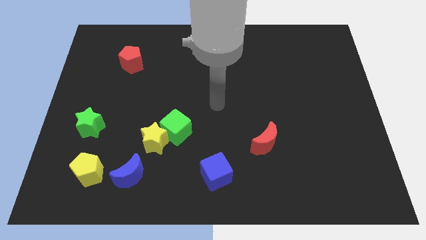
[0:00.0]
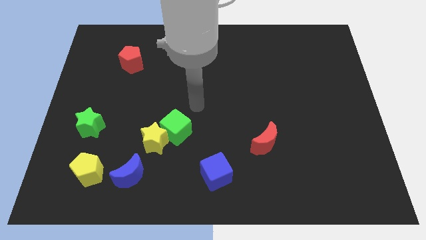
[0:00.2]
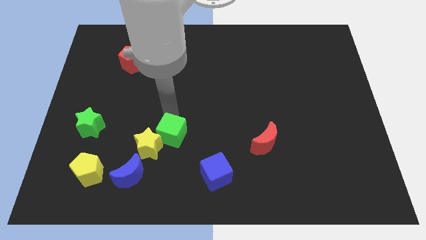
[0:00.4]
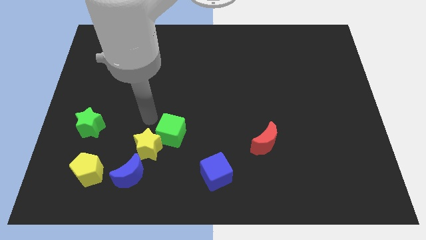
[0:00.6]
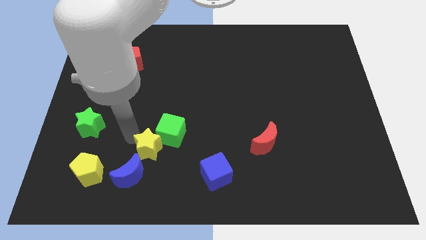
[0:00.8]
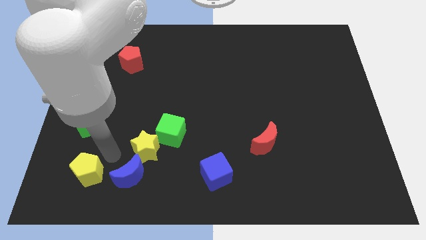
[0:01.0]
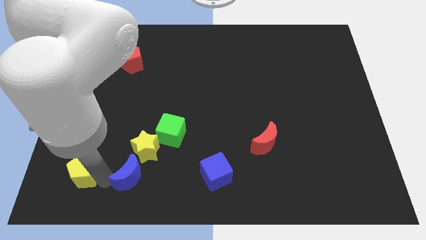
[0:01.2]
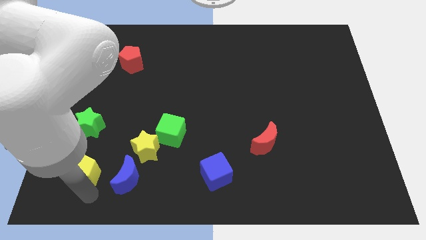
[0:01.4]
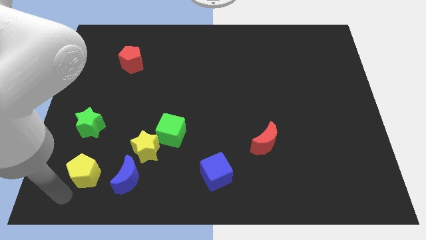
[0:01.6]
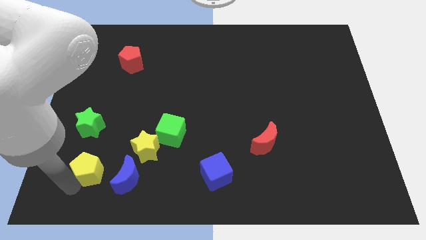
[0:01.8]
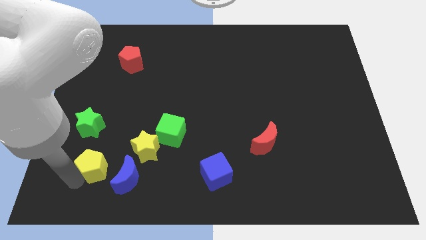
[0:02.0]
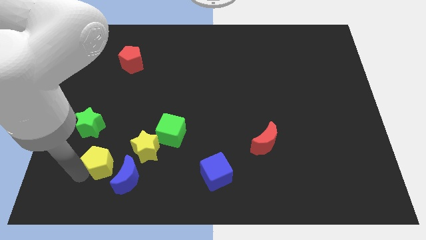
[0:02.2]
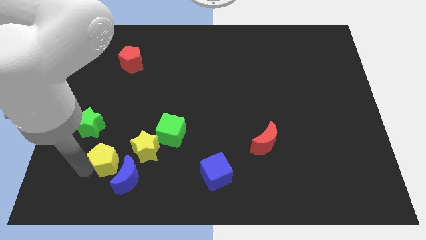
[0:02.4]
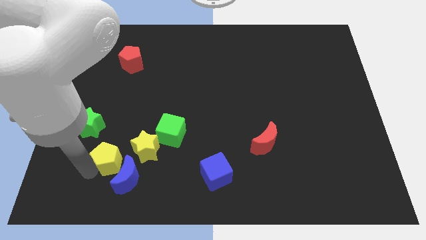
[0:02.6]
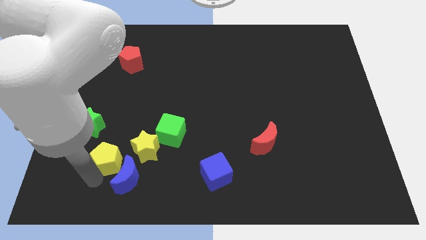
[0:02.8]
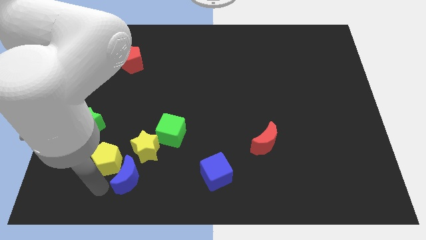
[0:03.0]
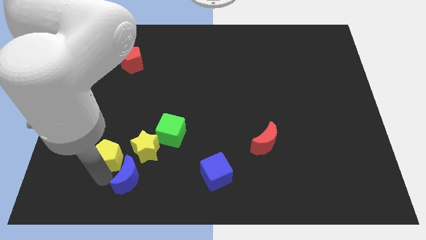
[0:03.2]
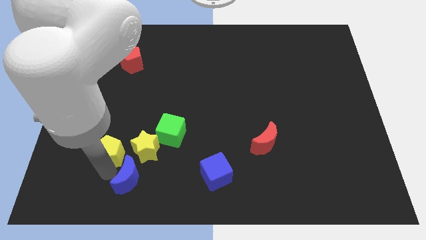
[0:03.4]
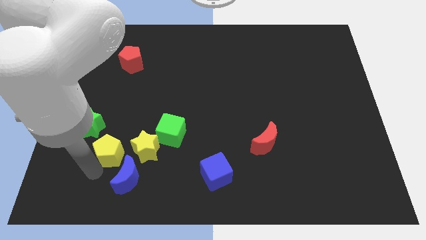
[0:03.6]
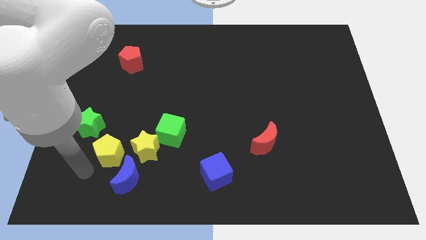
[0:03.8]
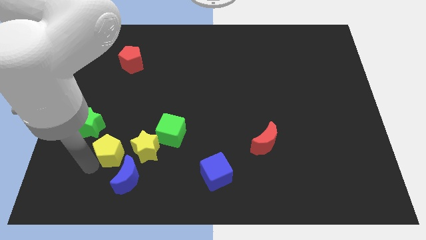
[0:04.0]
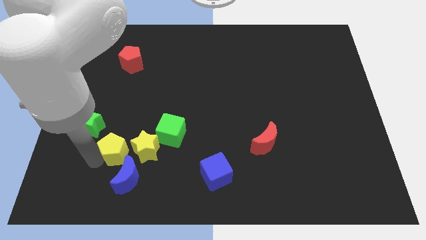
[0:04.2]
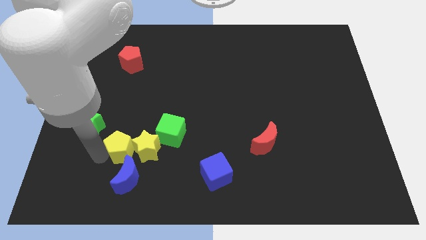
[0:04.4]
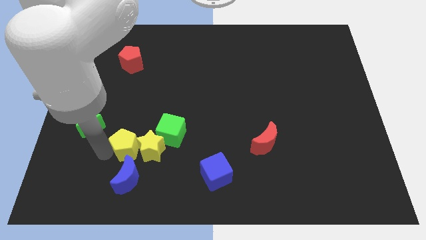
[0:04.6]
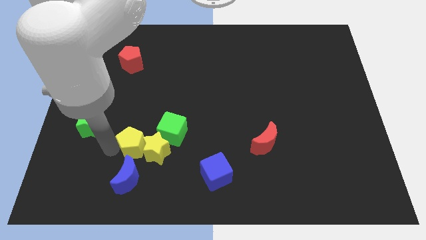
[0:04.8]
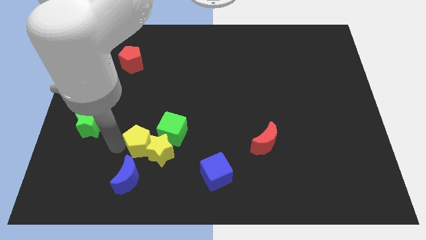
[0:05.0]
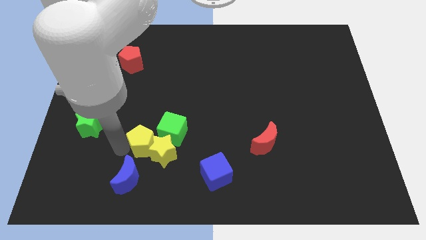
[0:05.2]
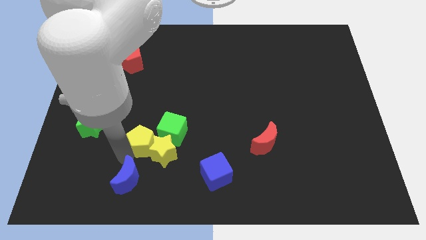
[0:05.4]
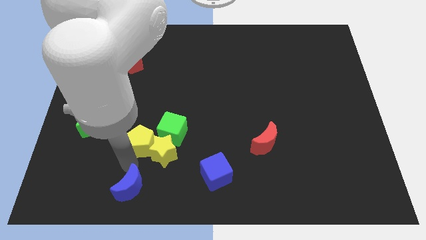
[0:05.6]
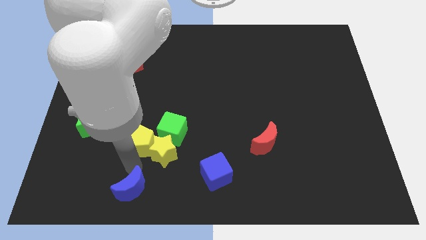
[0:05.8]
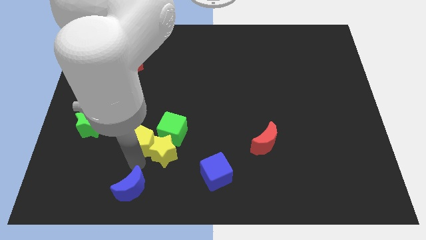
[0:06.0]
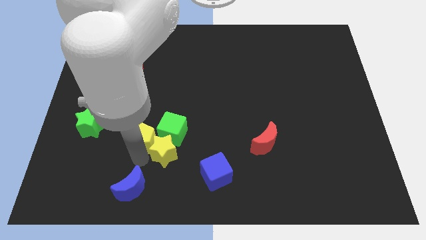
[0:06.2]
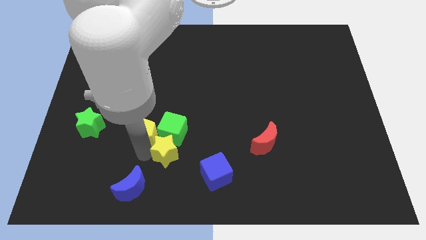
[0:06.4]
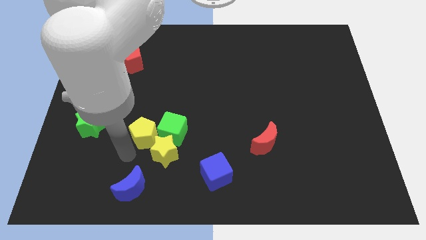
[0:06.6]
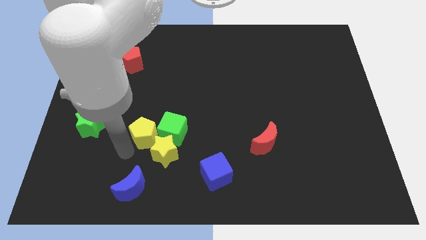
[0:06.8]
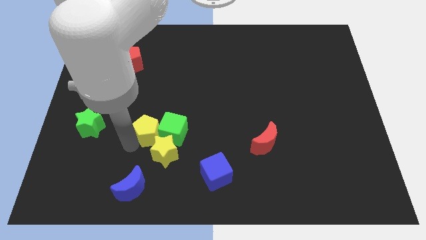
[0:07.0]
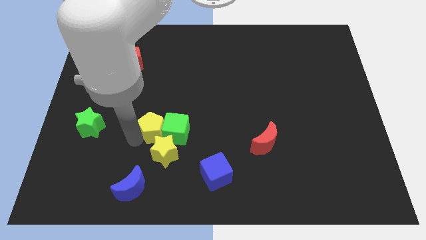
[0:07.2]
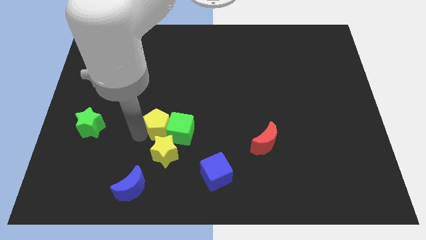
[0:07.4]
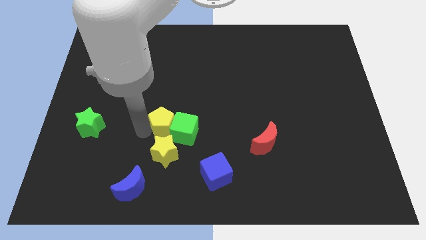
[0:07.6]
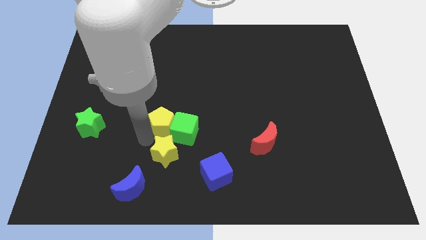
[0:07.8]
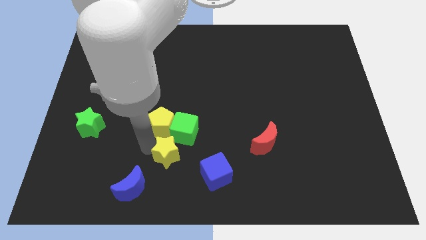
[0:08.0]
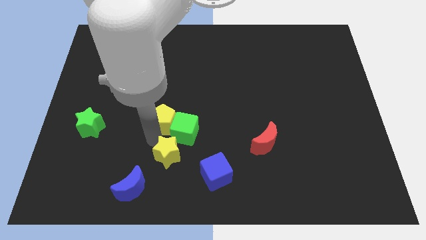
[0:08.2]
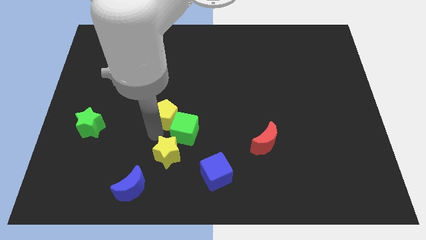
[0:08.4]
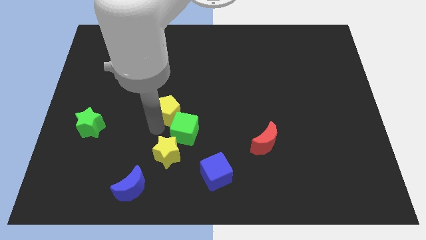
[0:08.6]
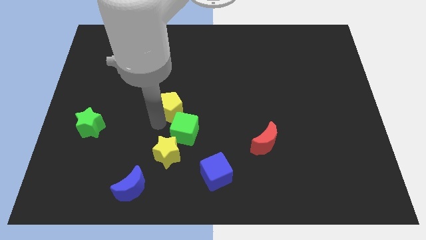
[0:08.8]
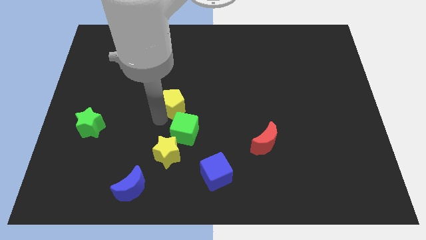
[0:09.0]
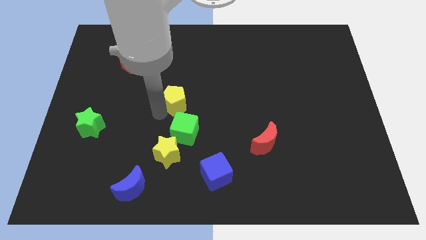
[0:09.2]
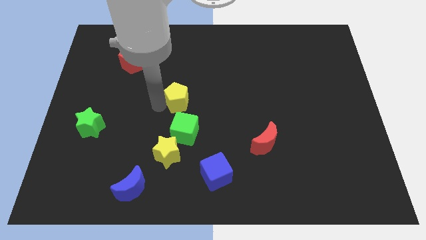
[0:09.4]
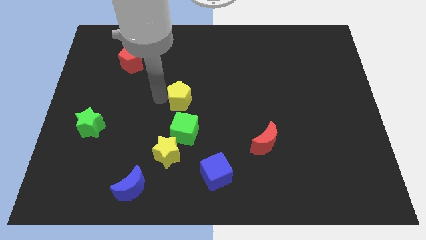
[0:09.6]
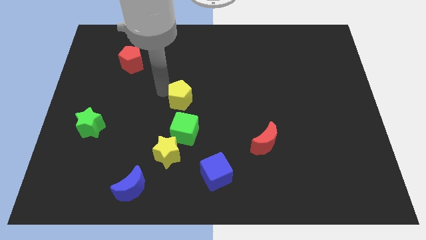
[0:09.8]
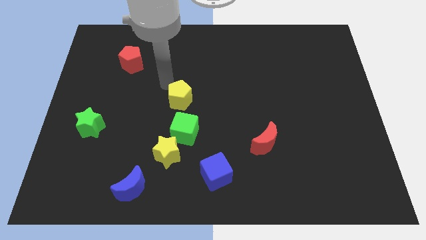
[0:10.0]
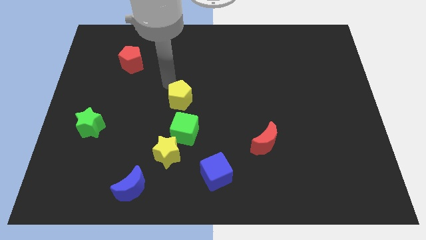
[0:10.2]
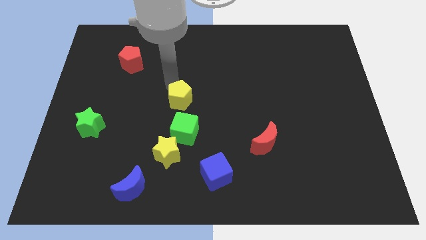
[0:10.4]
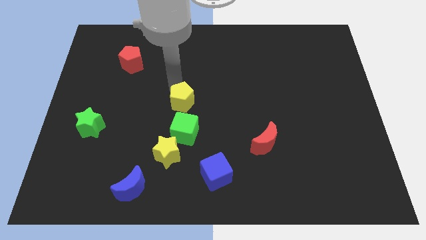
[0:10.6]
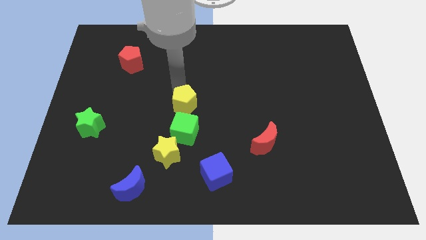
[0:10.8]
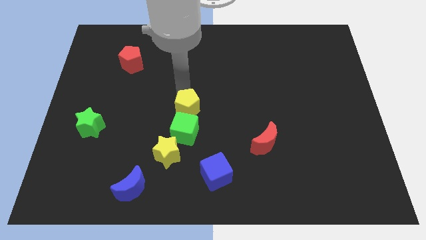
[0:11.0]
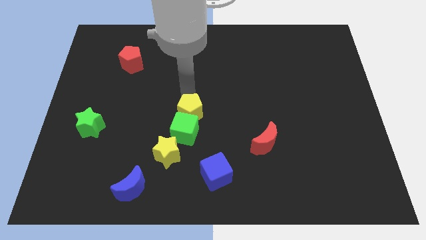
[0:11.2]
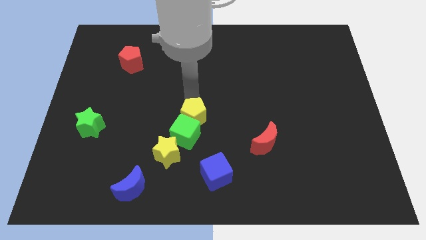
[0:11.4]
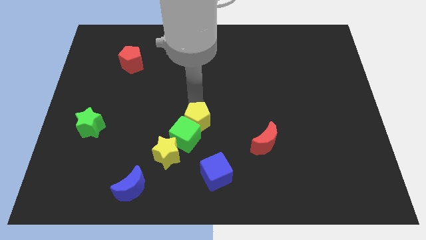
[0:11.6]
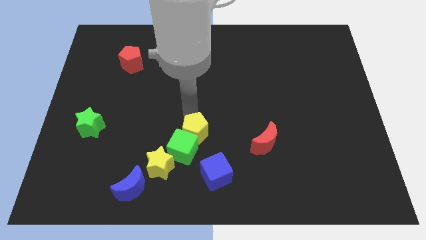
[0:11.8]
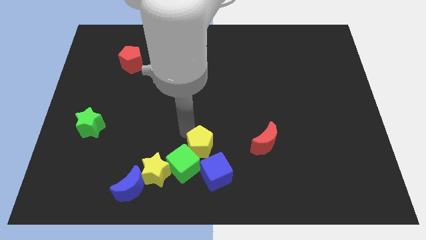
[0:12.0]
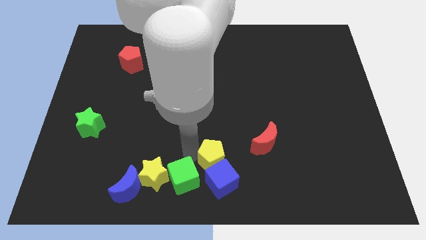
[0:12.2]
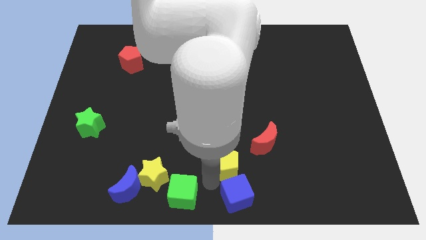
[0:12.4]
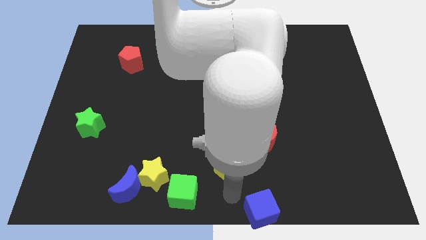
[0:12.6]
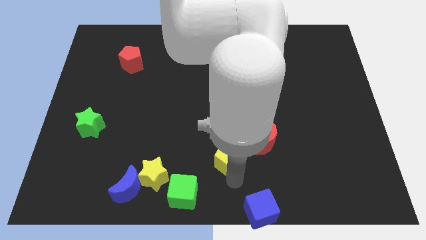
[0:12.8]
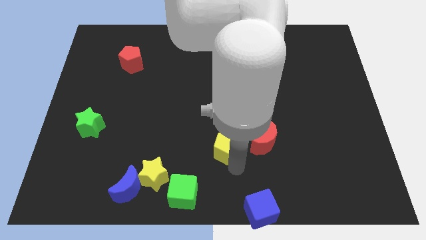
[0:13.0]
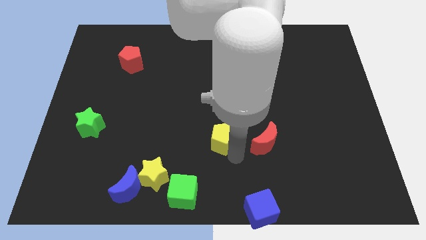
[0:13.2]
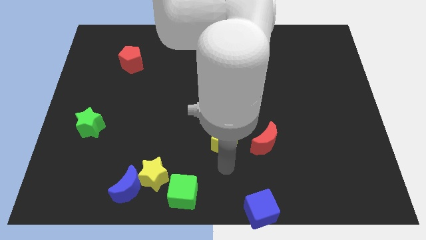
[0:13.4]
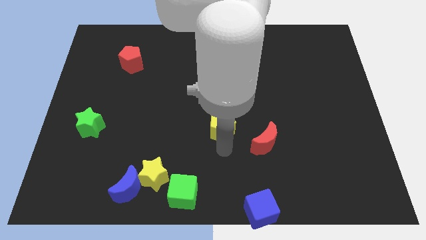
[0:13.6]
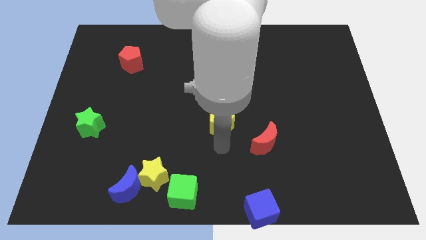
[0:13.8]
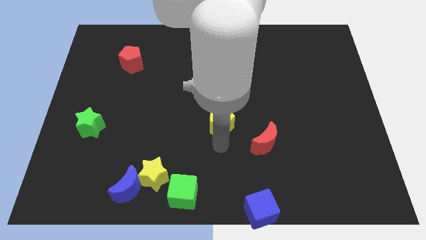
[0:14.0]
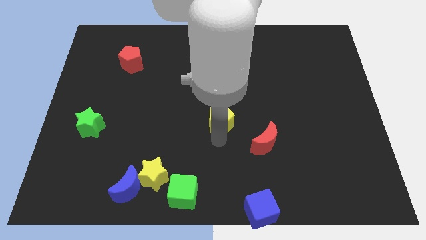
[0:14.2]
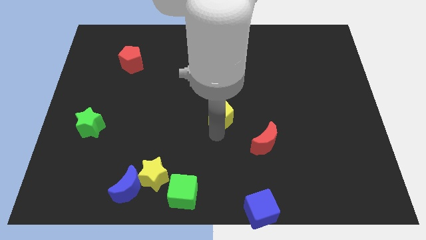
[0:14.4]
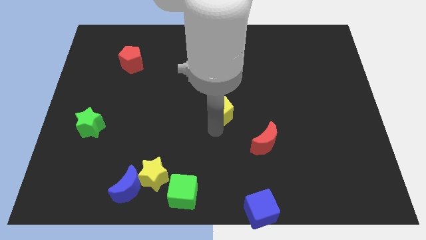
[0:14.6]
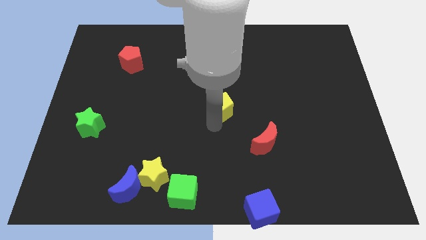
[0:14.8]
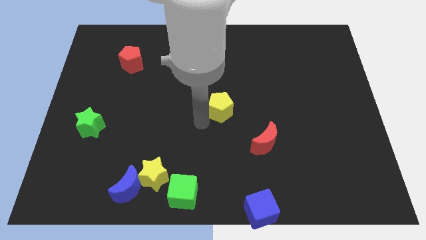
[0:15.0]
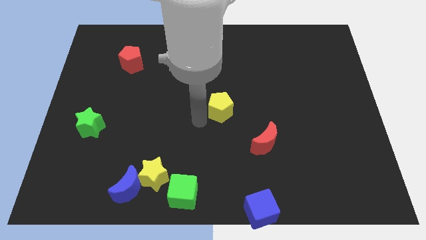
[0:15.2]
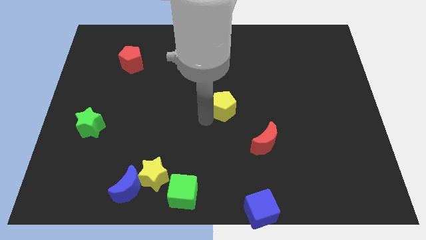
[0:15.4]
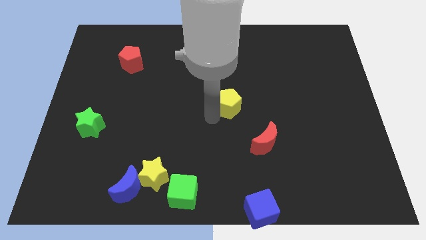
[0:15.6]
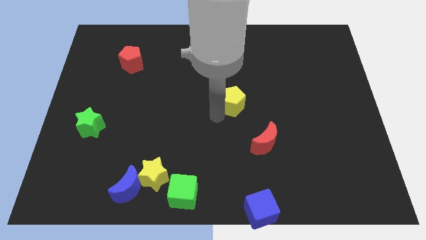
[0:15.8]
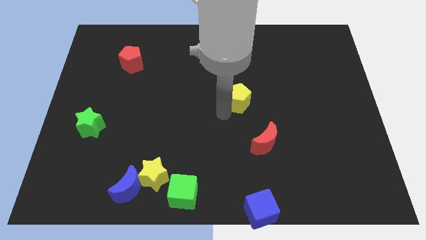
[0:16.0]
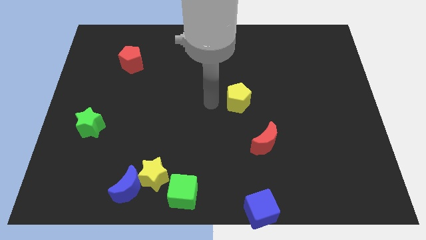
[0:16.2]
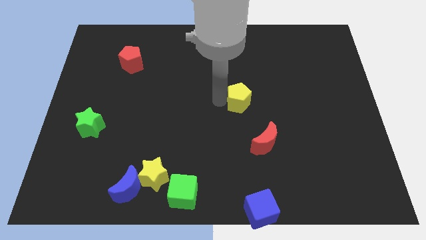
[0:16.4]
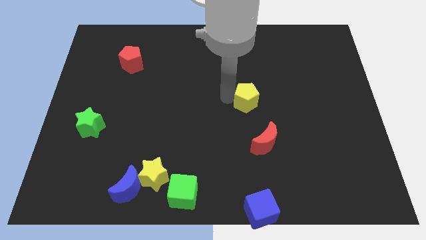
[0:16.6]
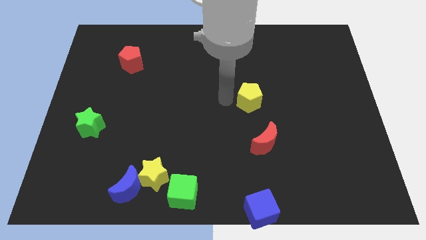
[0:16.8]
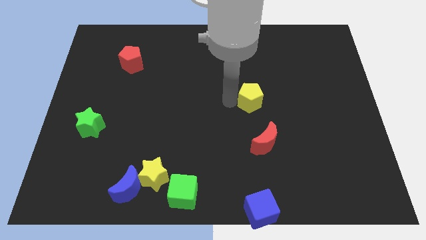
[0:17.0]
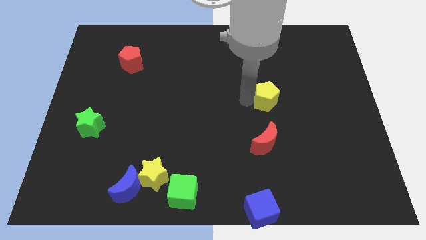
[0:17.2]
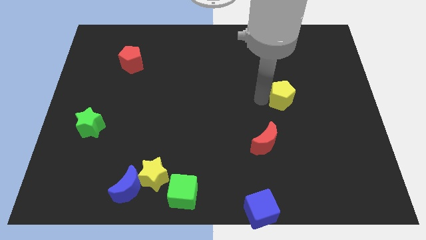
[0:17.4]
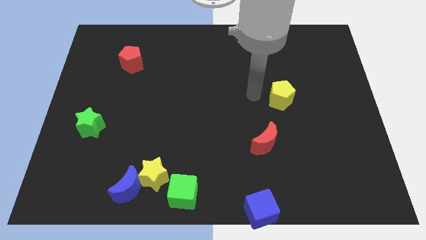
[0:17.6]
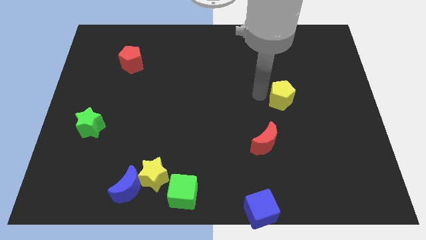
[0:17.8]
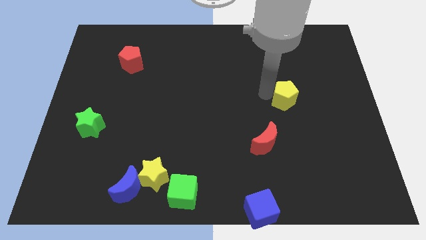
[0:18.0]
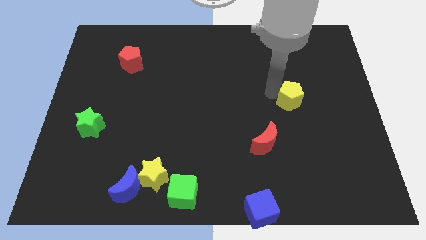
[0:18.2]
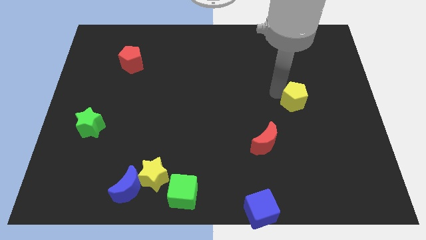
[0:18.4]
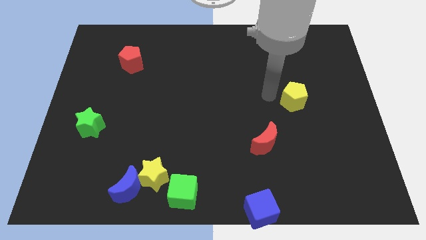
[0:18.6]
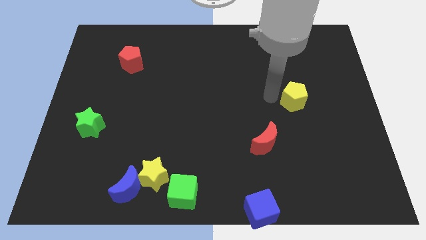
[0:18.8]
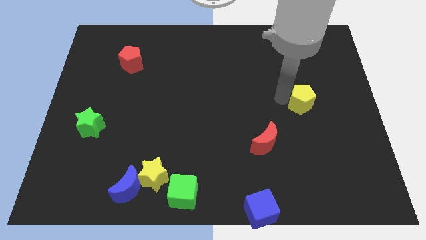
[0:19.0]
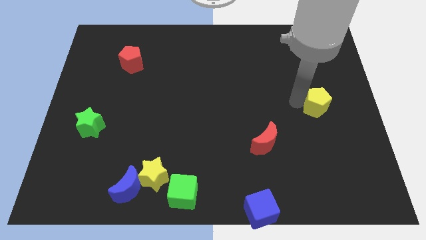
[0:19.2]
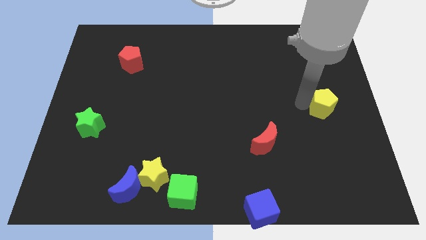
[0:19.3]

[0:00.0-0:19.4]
put the yellow pentagon to the center right
